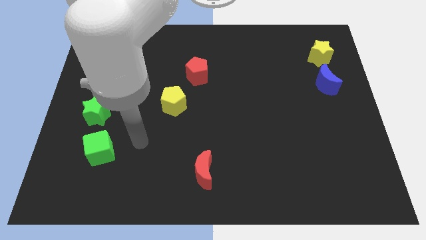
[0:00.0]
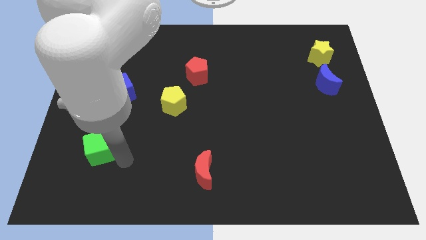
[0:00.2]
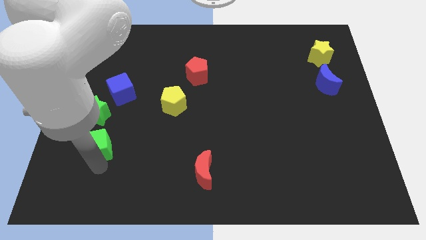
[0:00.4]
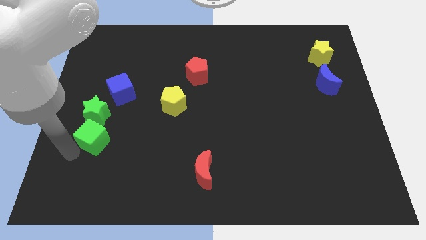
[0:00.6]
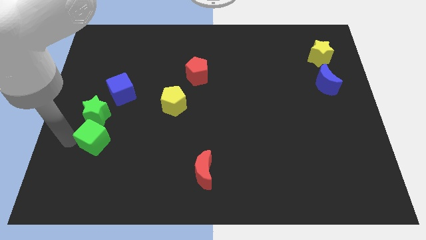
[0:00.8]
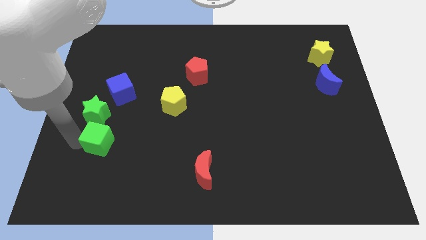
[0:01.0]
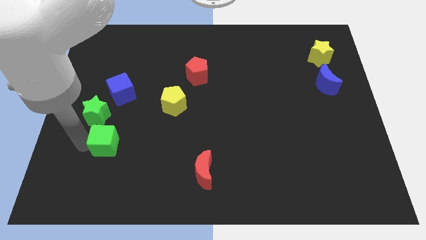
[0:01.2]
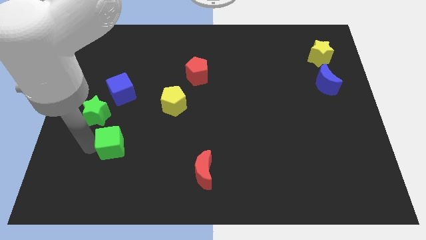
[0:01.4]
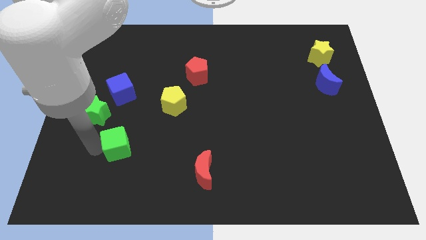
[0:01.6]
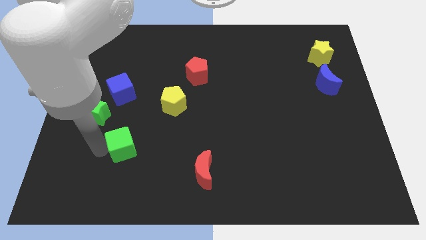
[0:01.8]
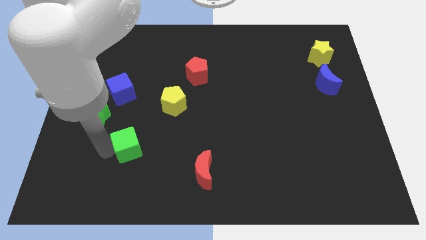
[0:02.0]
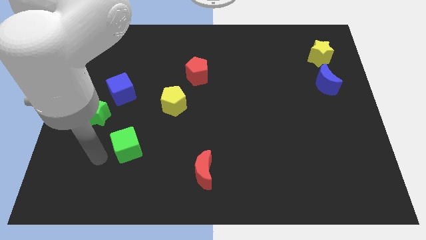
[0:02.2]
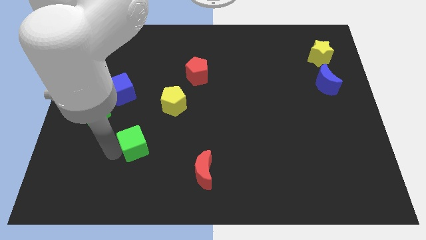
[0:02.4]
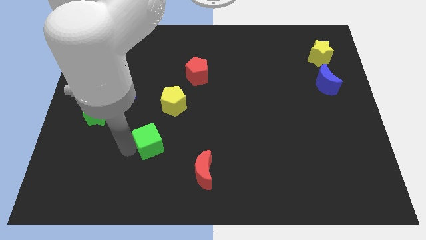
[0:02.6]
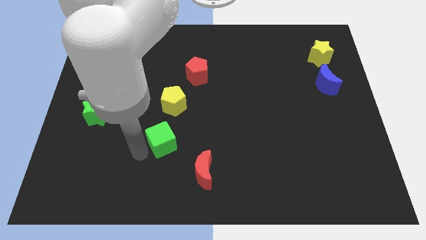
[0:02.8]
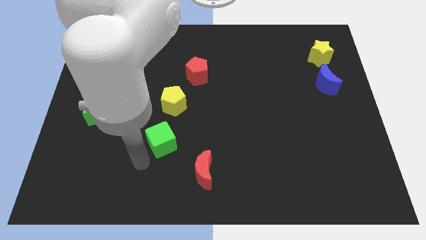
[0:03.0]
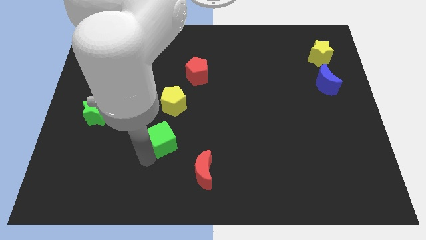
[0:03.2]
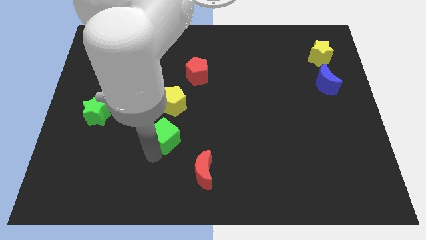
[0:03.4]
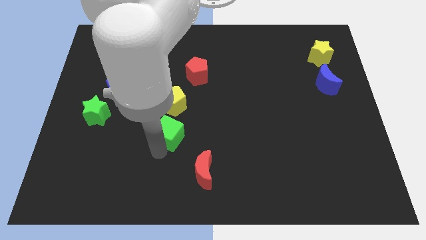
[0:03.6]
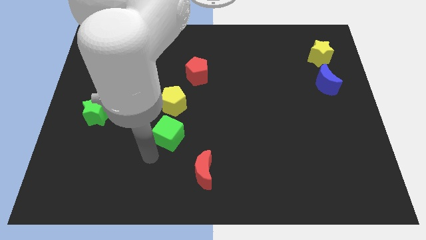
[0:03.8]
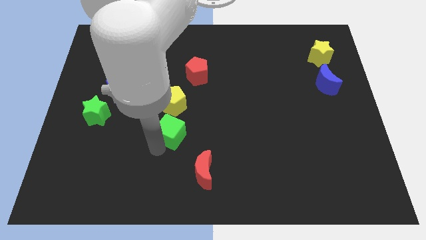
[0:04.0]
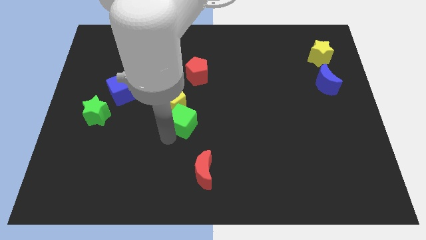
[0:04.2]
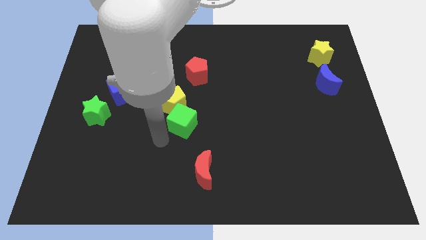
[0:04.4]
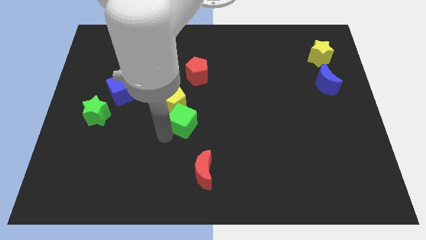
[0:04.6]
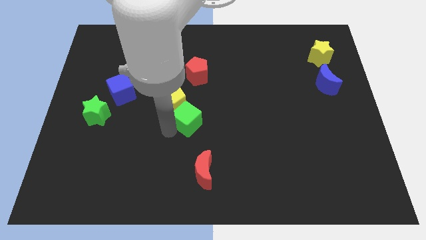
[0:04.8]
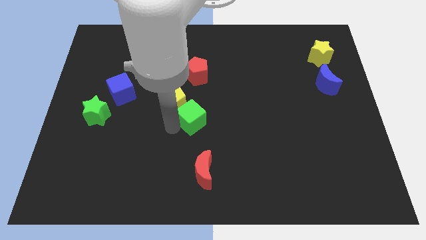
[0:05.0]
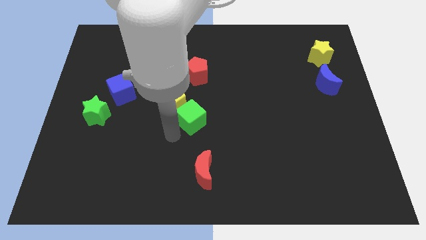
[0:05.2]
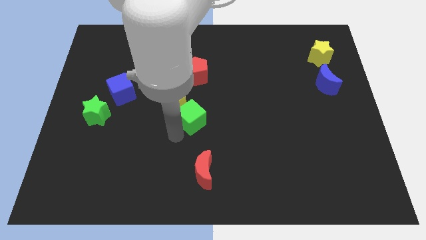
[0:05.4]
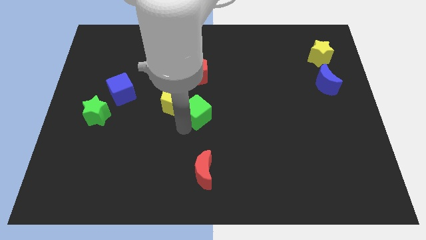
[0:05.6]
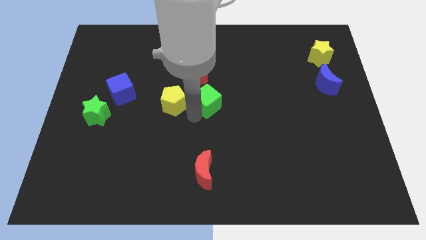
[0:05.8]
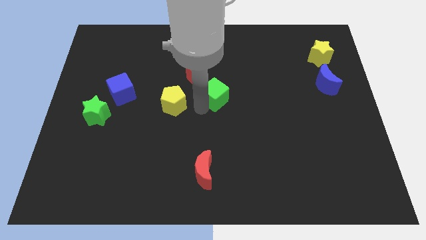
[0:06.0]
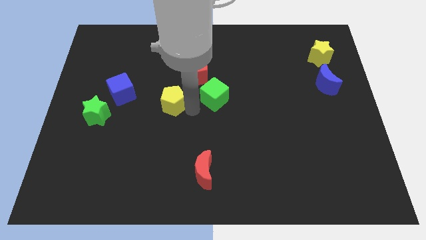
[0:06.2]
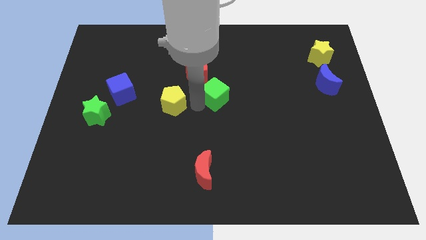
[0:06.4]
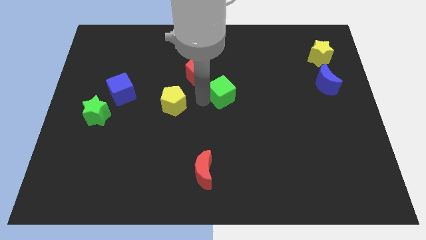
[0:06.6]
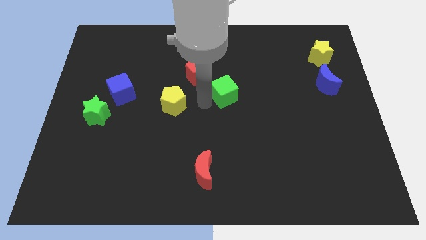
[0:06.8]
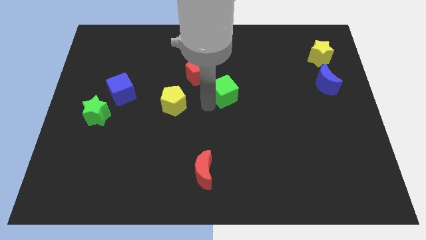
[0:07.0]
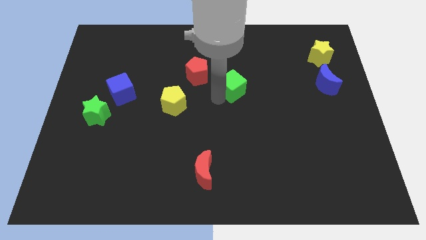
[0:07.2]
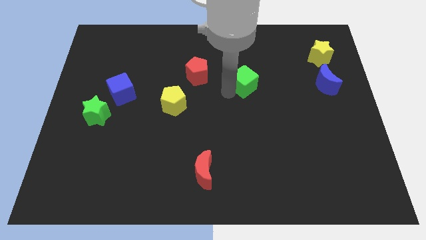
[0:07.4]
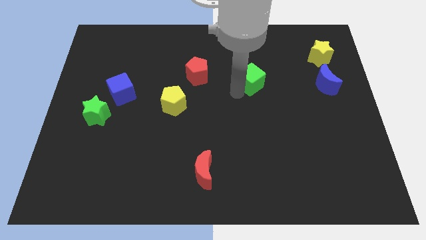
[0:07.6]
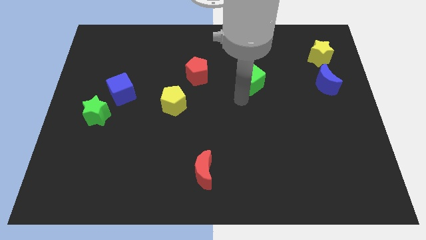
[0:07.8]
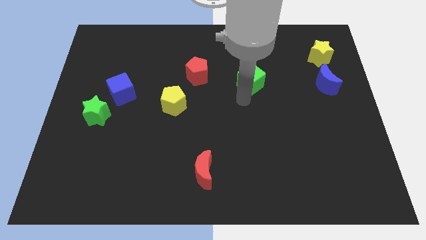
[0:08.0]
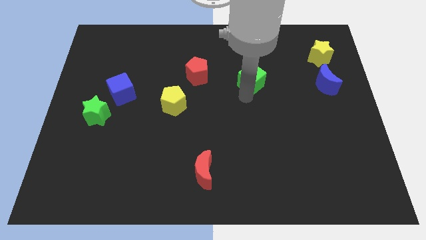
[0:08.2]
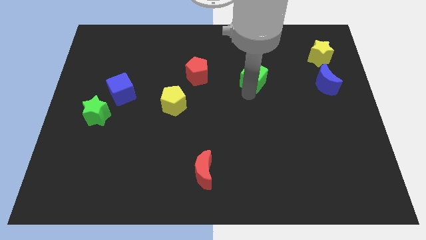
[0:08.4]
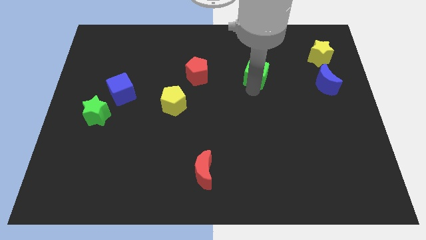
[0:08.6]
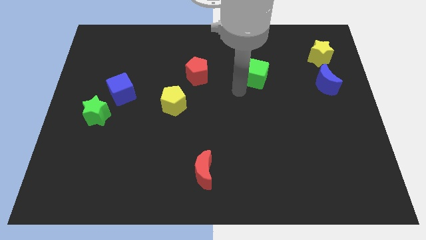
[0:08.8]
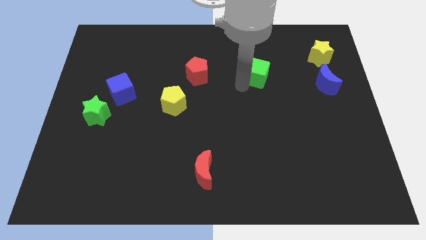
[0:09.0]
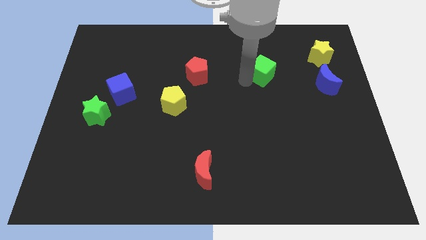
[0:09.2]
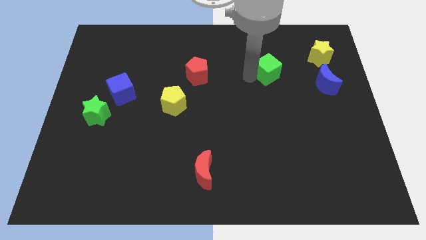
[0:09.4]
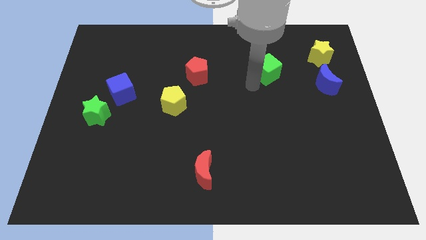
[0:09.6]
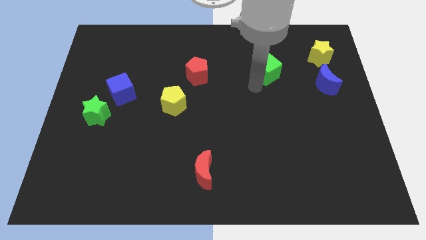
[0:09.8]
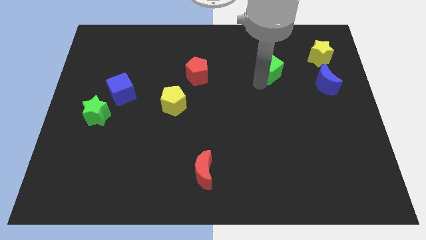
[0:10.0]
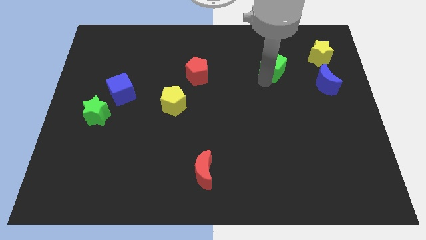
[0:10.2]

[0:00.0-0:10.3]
move the green cube left of the yellow star

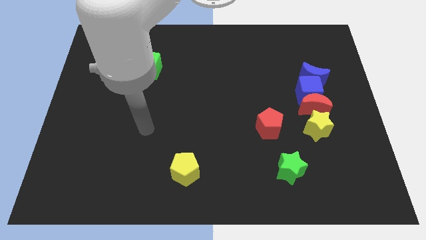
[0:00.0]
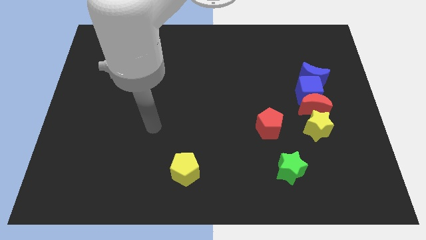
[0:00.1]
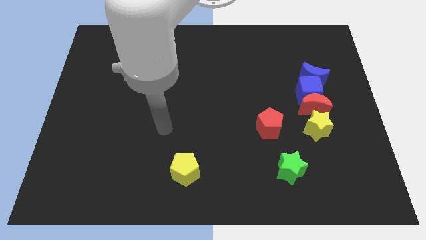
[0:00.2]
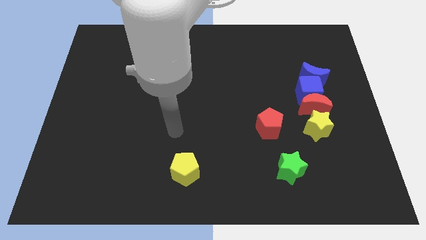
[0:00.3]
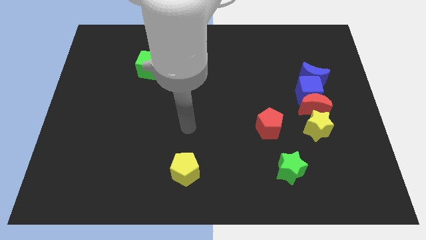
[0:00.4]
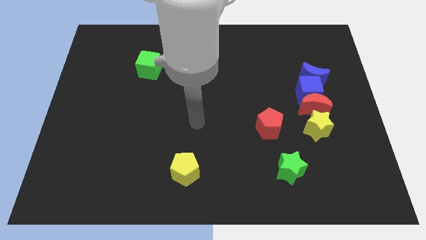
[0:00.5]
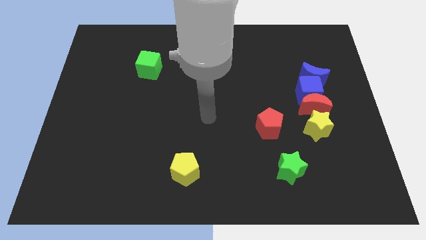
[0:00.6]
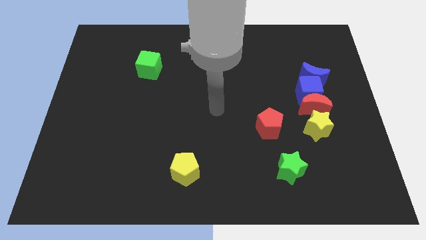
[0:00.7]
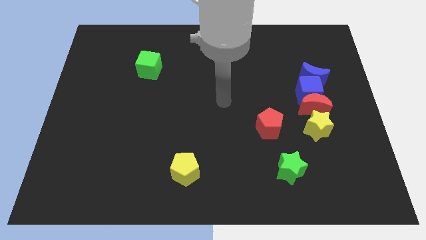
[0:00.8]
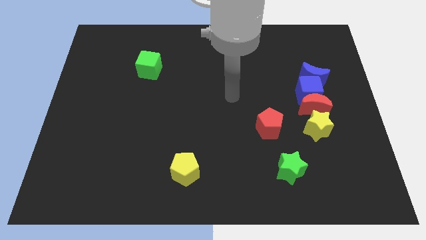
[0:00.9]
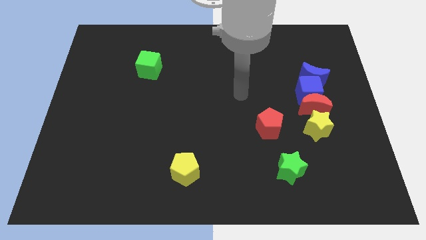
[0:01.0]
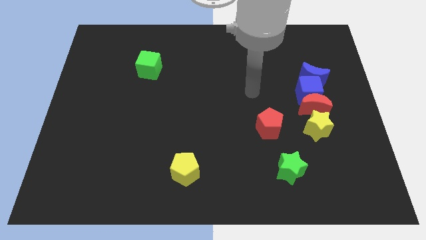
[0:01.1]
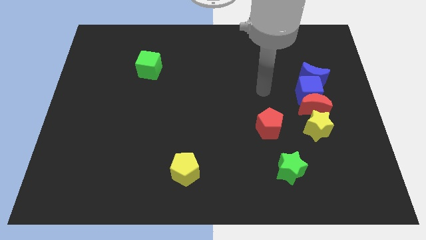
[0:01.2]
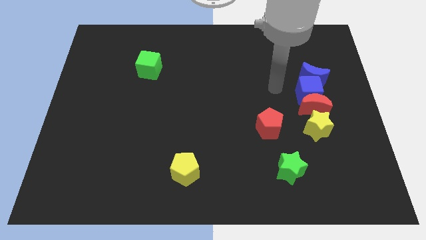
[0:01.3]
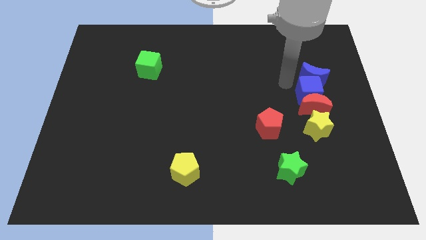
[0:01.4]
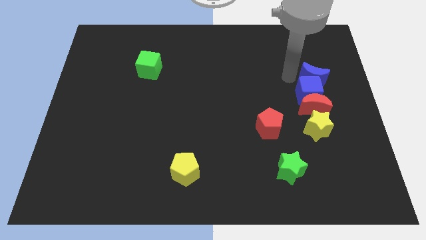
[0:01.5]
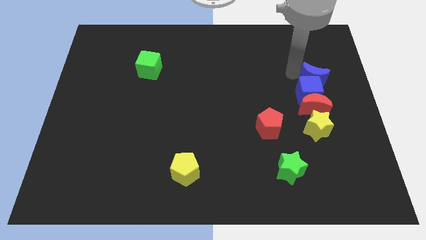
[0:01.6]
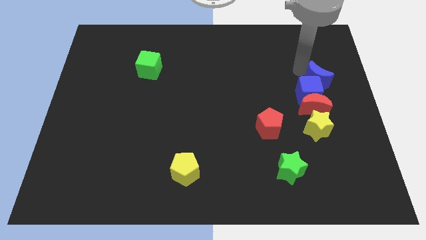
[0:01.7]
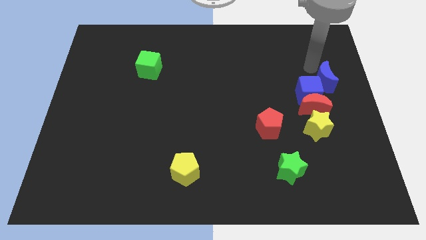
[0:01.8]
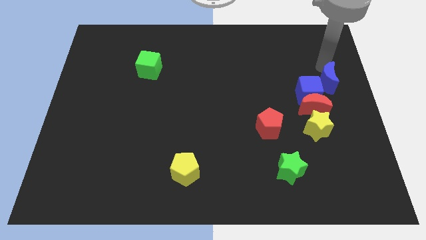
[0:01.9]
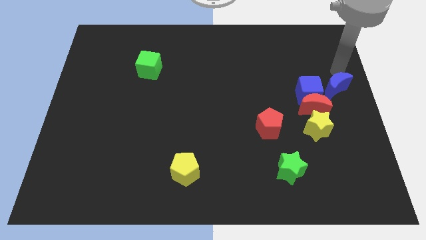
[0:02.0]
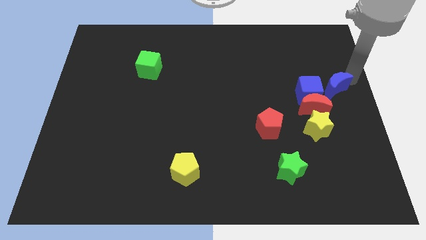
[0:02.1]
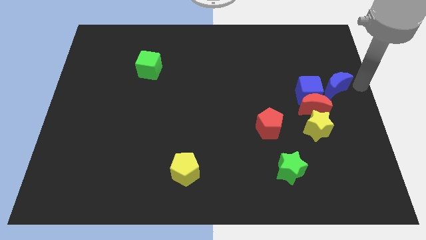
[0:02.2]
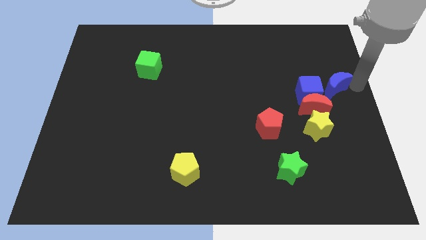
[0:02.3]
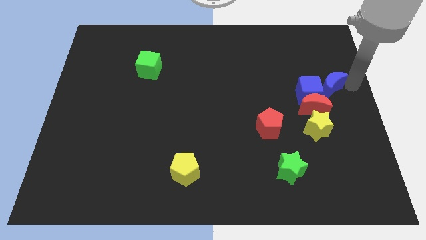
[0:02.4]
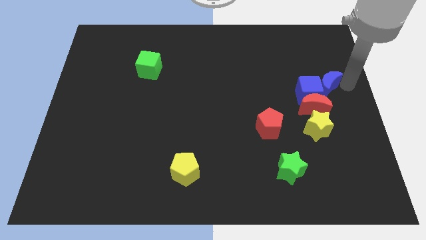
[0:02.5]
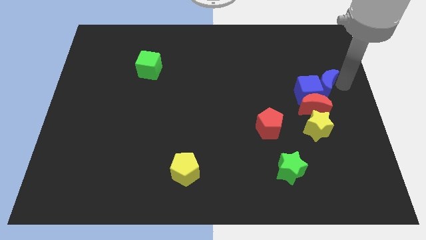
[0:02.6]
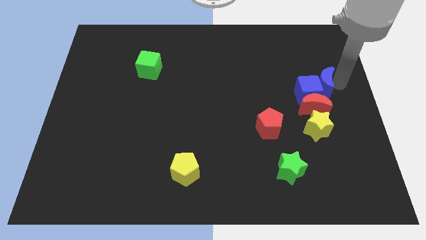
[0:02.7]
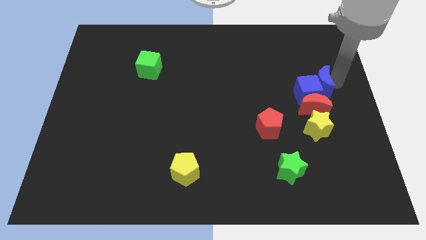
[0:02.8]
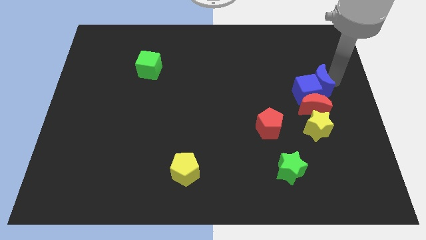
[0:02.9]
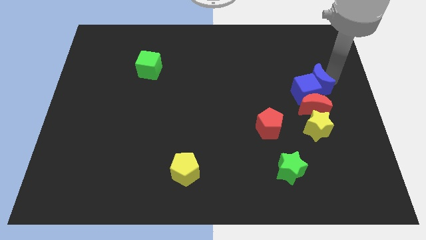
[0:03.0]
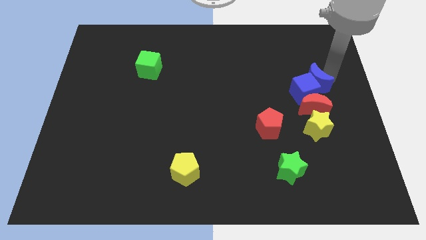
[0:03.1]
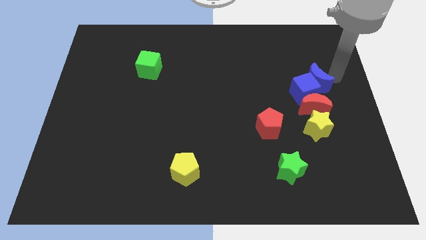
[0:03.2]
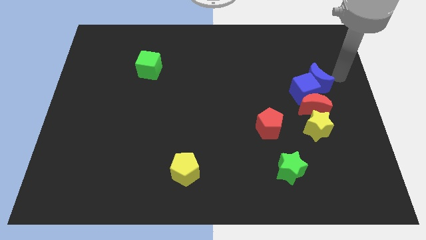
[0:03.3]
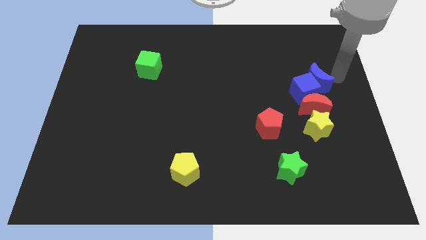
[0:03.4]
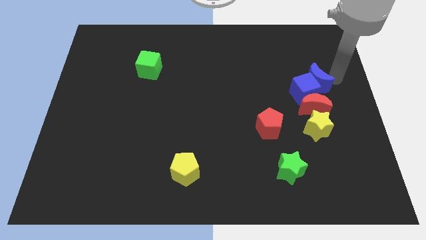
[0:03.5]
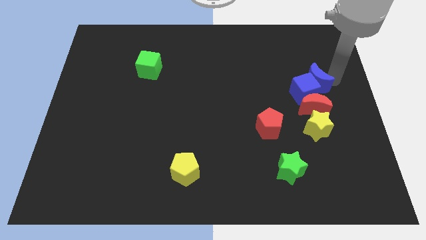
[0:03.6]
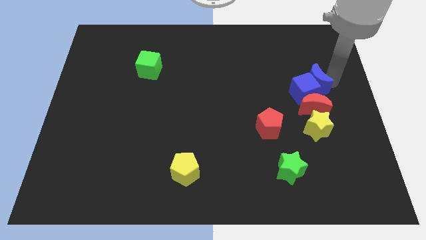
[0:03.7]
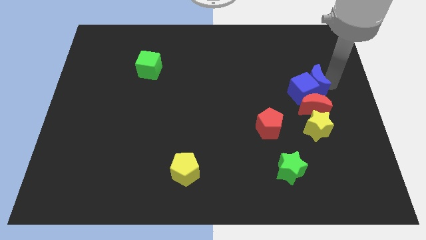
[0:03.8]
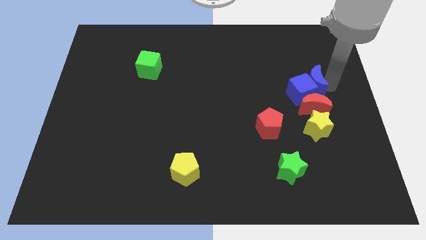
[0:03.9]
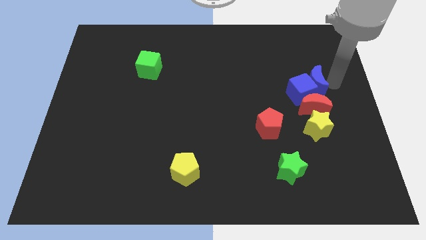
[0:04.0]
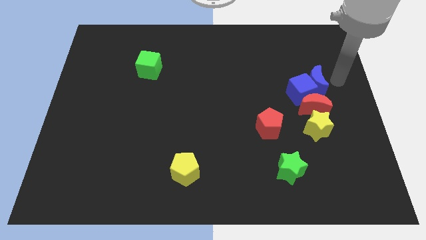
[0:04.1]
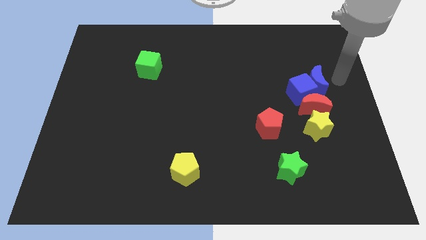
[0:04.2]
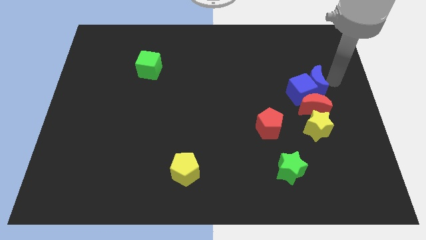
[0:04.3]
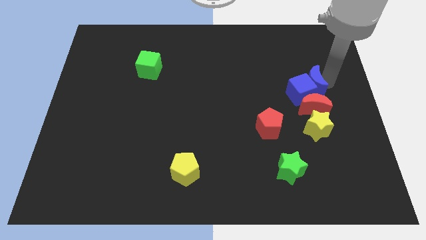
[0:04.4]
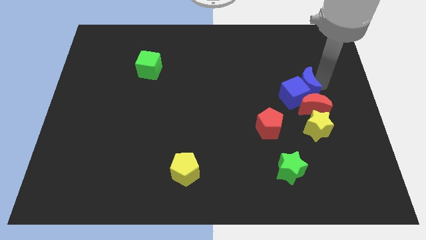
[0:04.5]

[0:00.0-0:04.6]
move the blue moon diagonally up and to the left of the red moon
